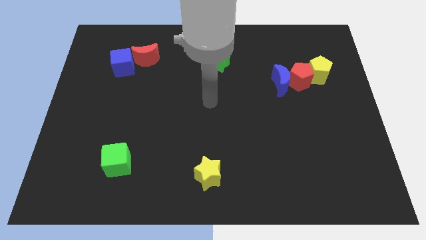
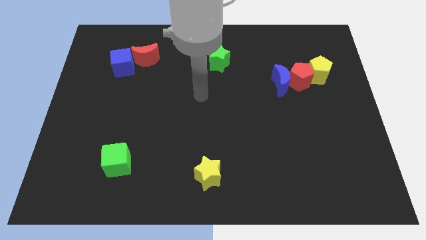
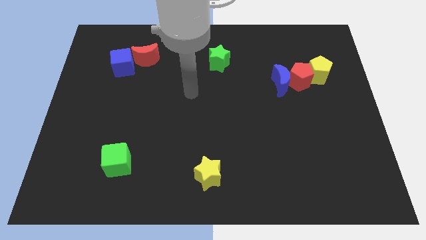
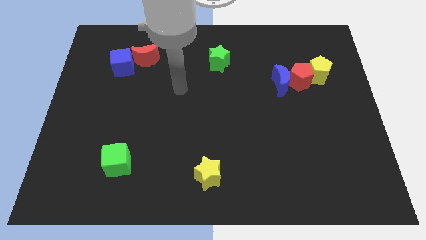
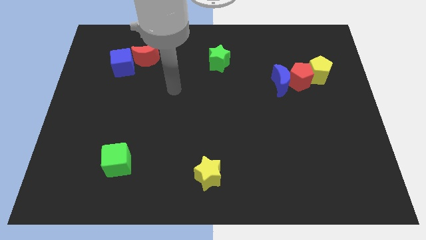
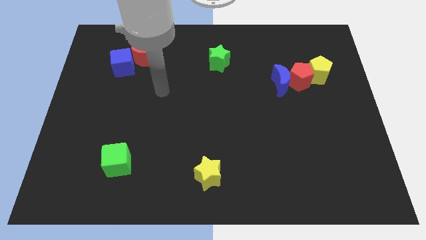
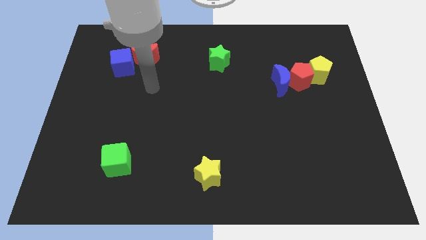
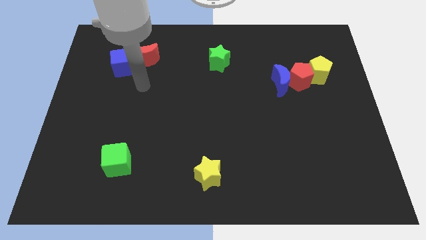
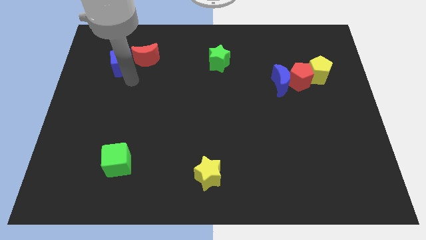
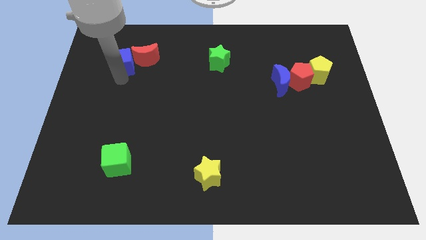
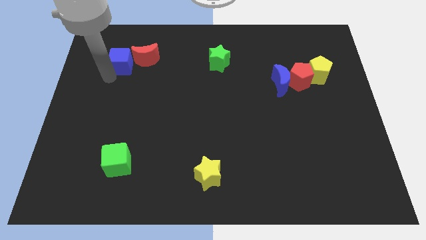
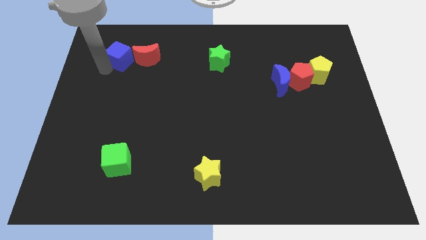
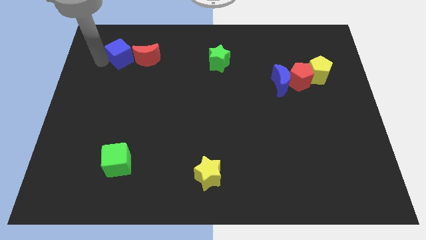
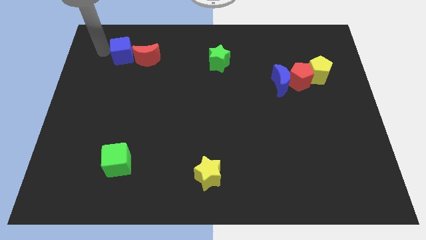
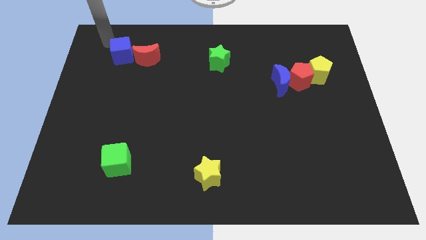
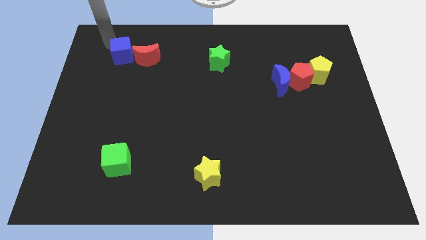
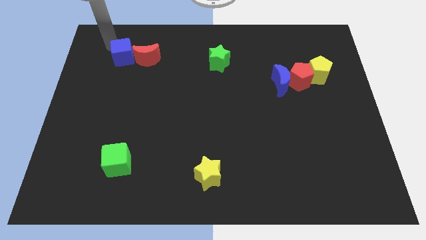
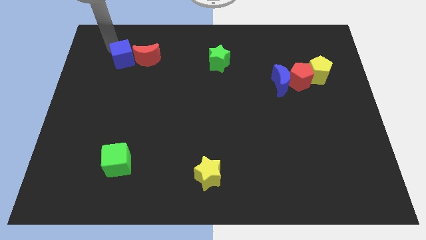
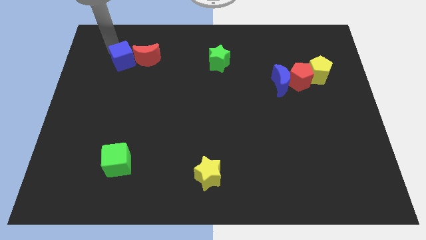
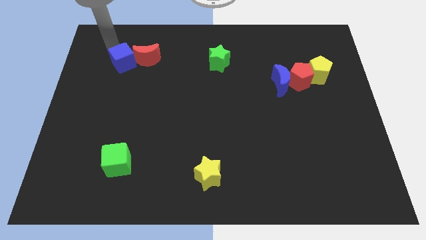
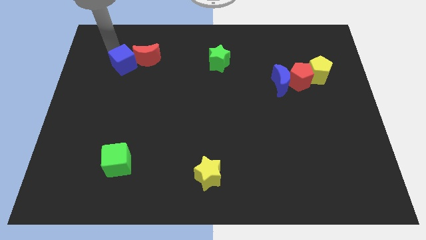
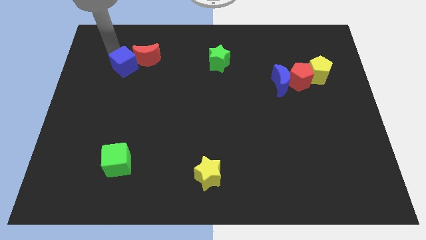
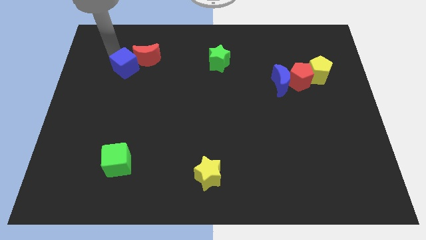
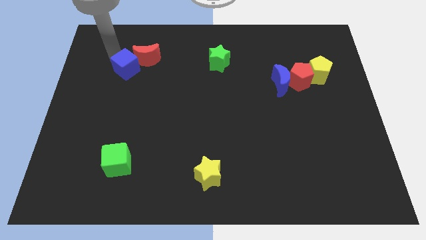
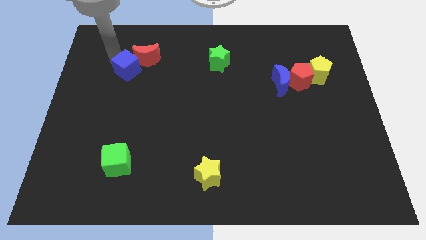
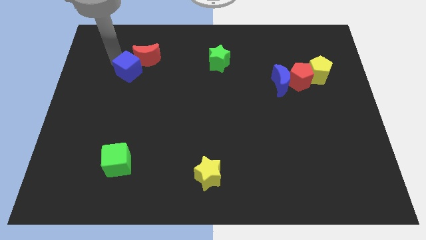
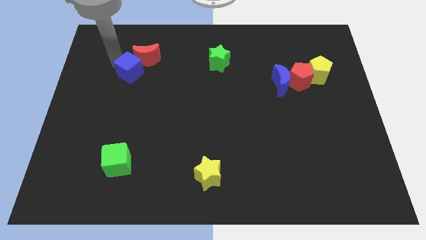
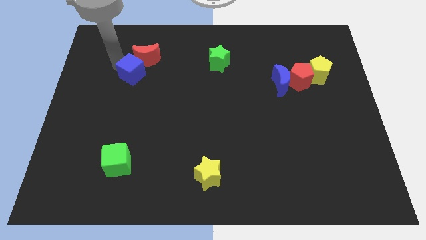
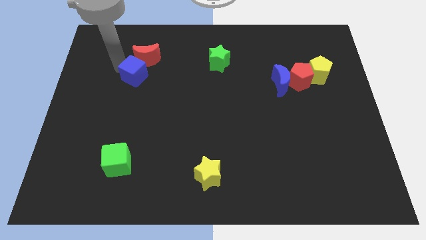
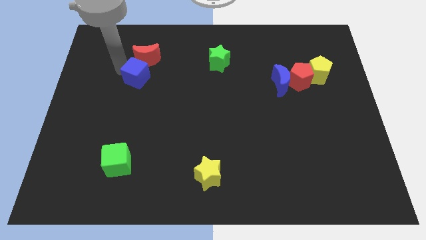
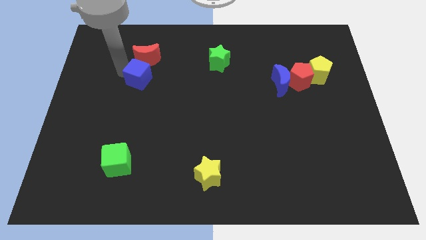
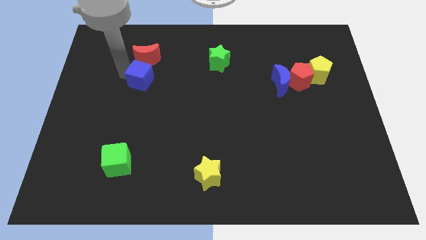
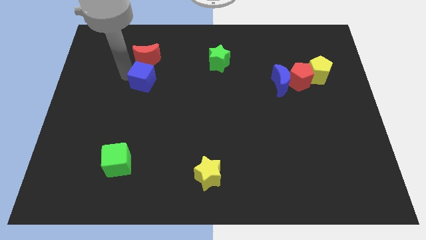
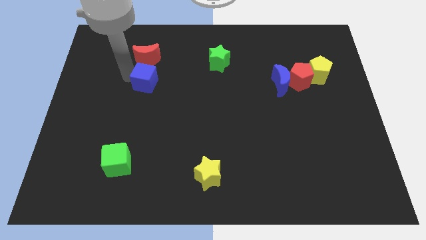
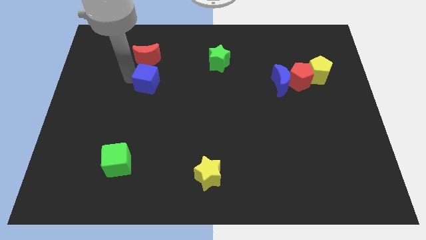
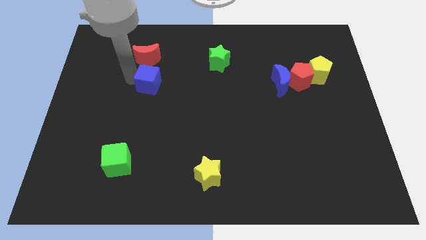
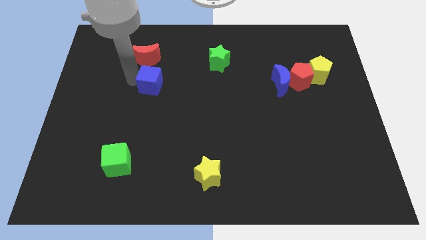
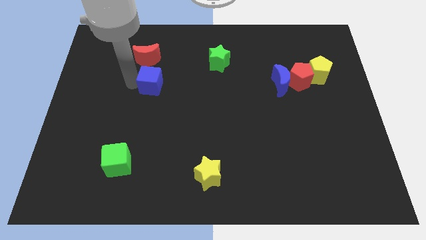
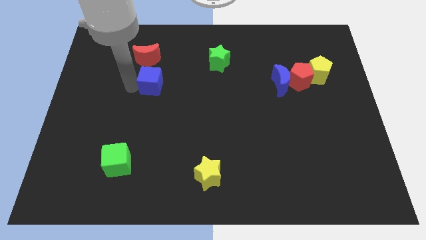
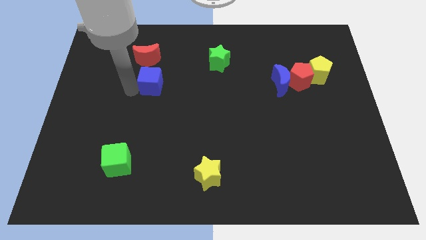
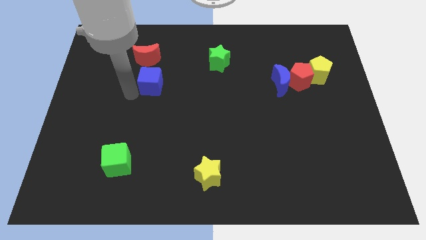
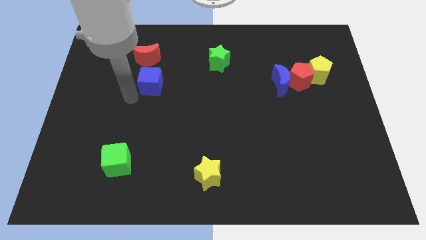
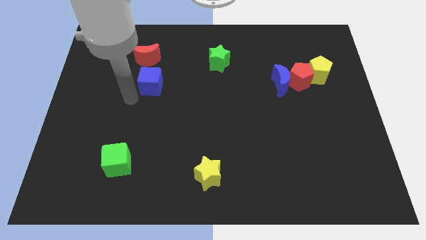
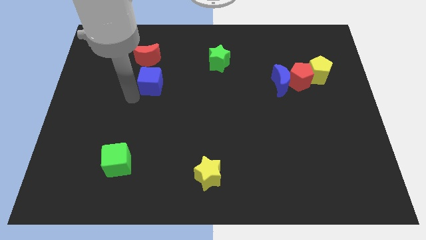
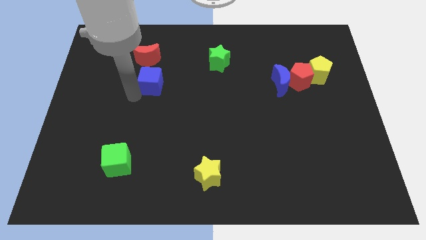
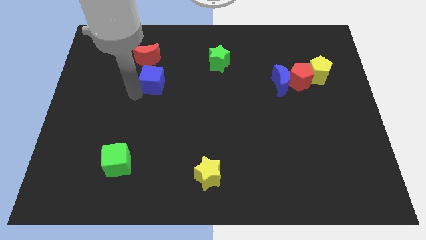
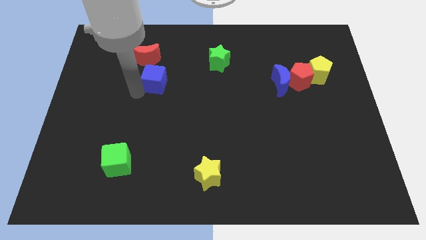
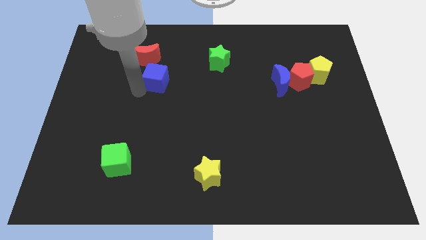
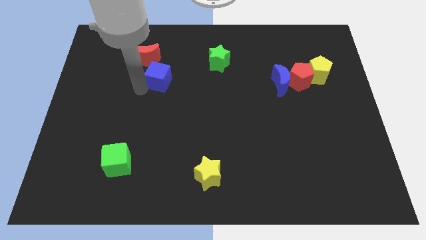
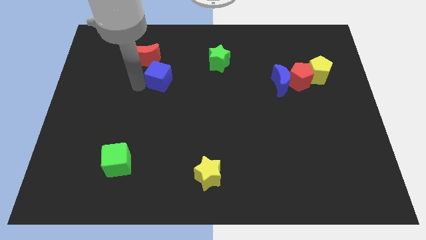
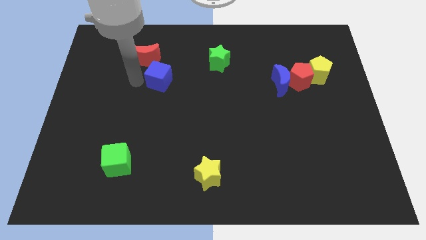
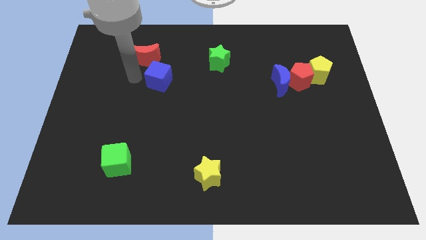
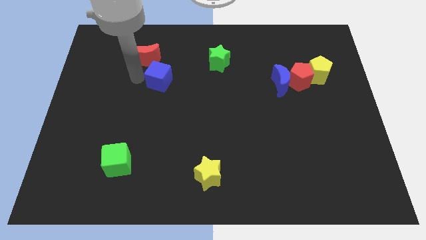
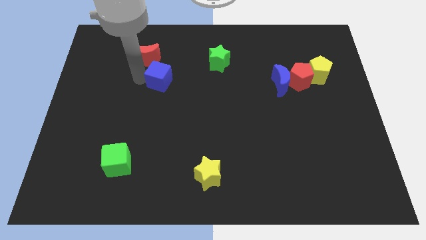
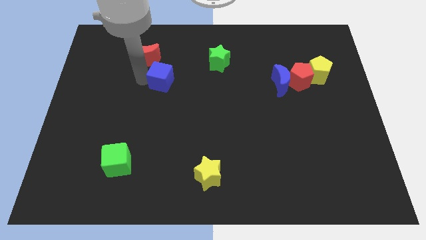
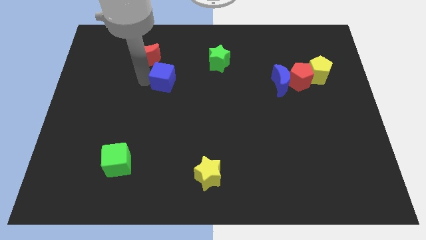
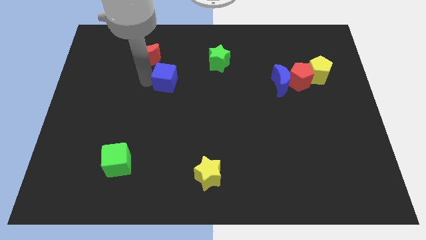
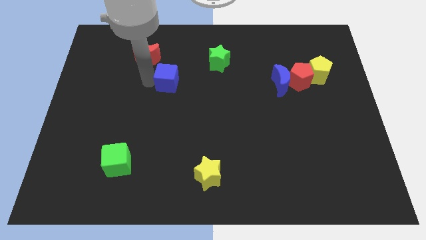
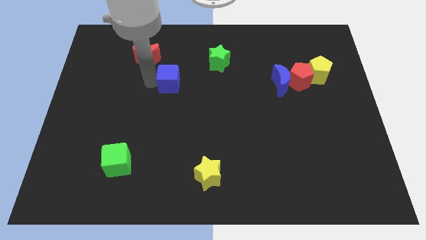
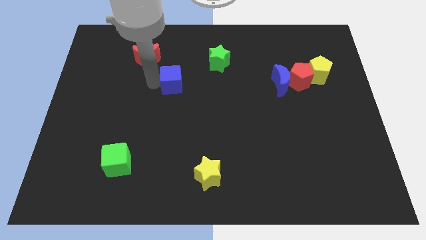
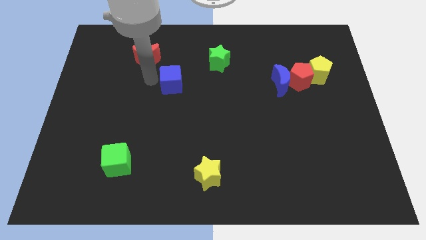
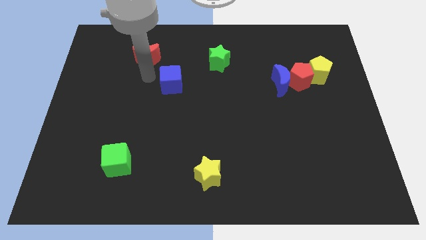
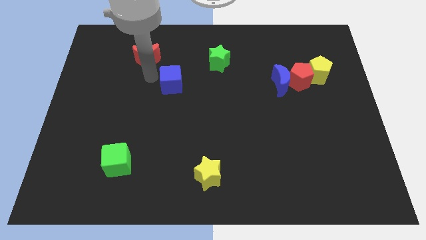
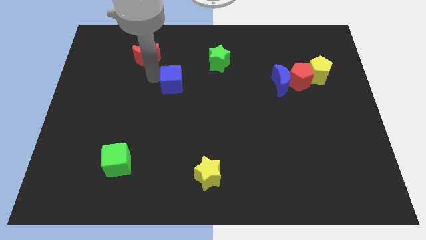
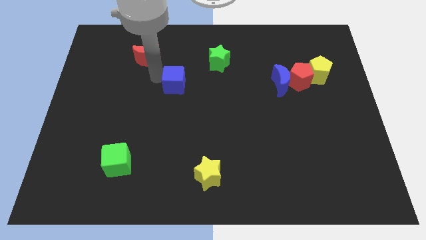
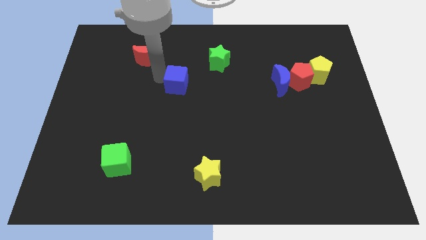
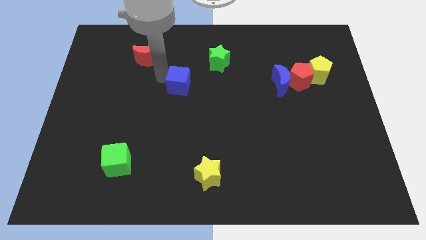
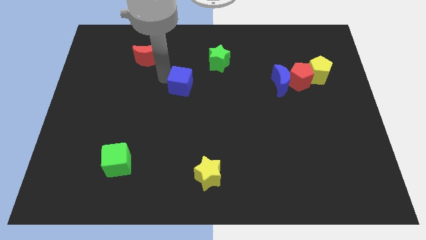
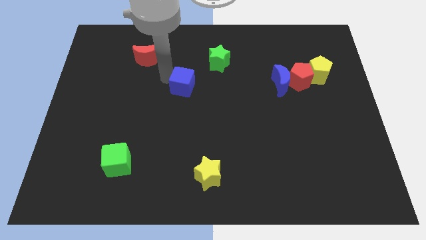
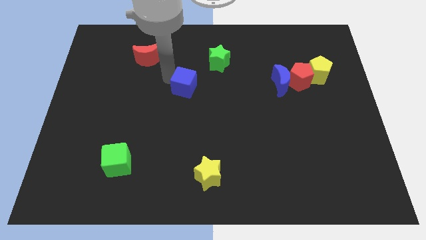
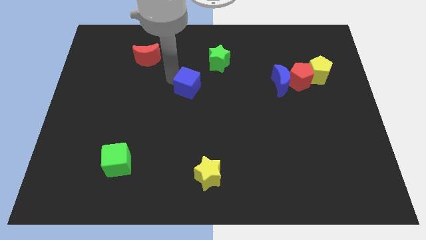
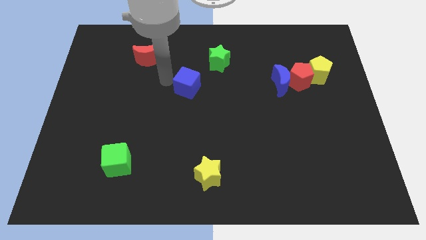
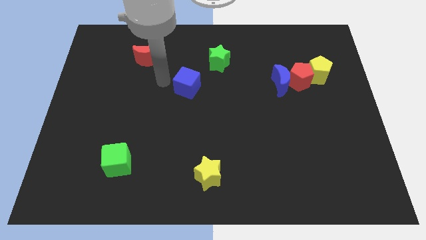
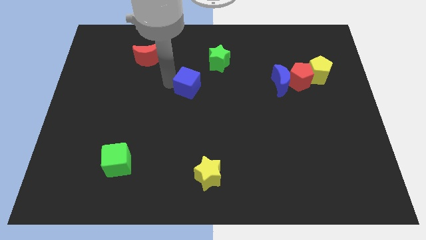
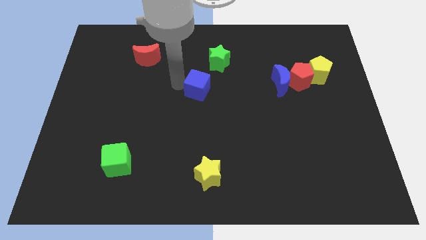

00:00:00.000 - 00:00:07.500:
push the blue cube to the bottom of the green star
